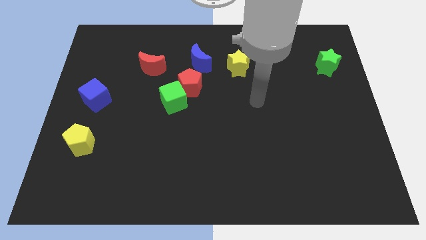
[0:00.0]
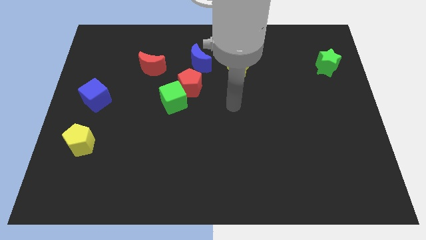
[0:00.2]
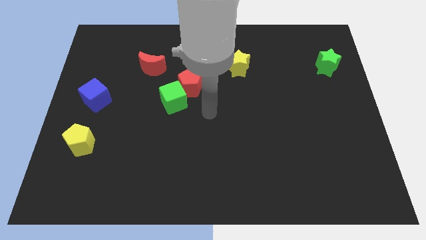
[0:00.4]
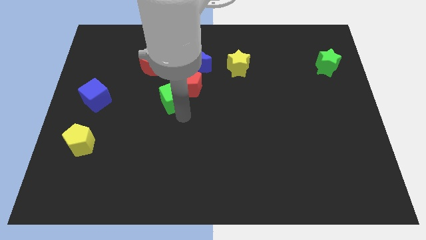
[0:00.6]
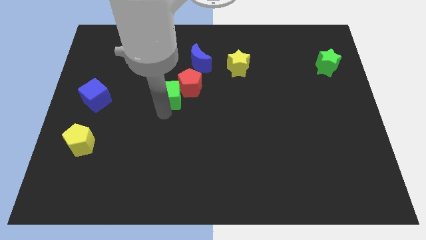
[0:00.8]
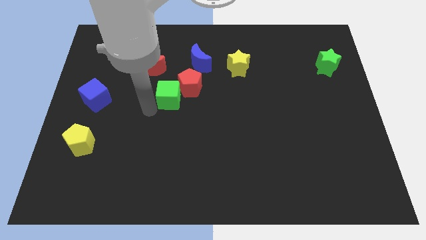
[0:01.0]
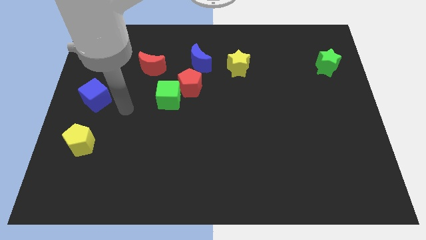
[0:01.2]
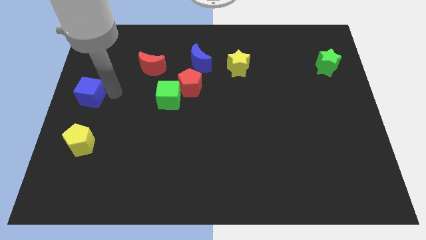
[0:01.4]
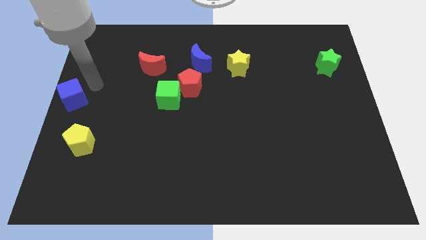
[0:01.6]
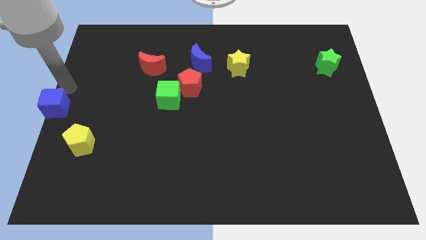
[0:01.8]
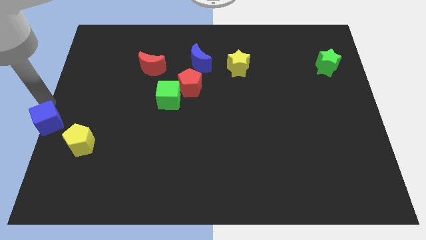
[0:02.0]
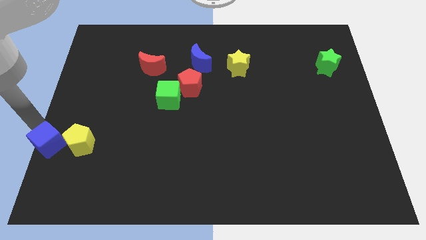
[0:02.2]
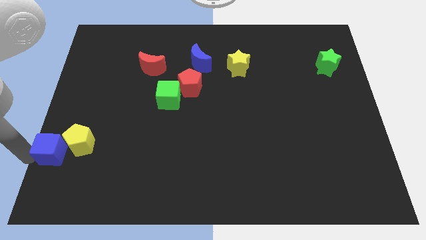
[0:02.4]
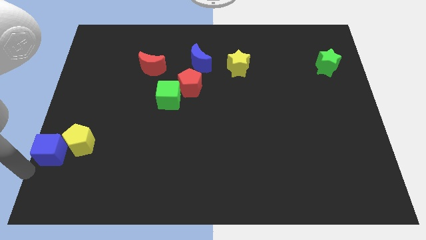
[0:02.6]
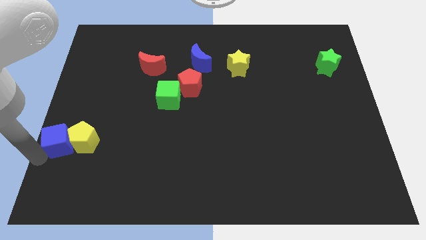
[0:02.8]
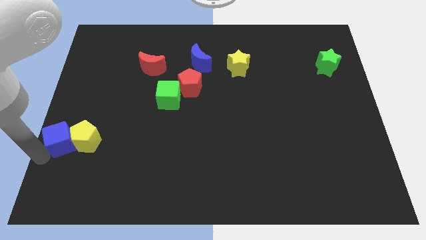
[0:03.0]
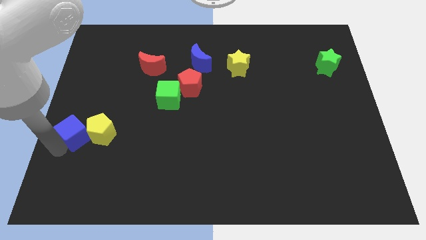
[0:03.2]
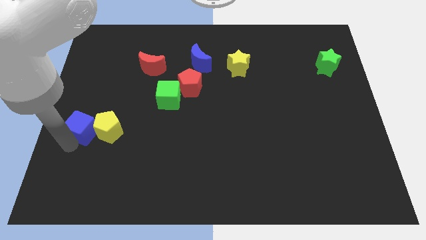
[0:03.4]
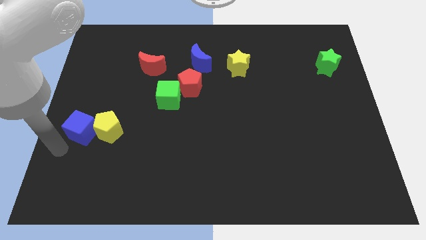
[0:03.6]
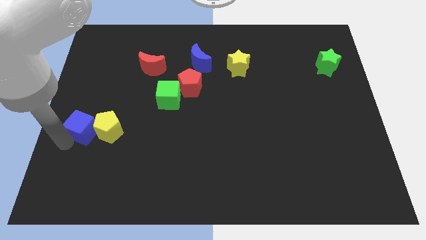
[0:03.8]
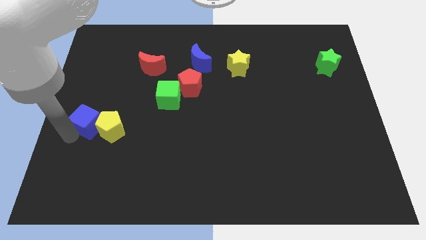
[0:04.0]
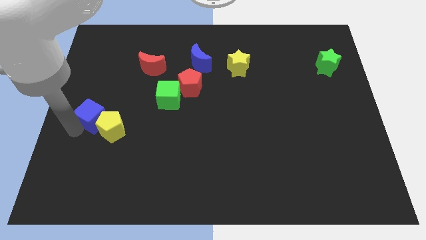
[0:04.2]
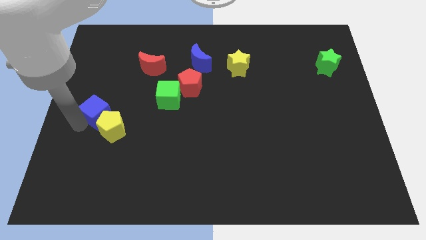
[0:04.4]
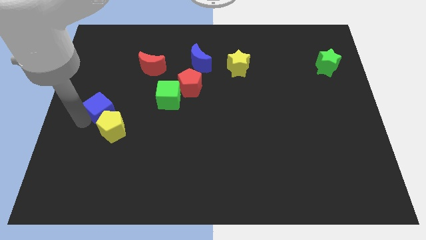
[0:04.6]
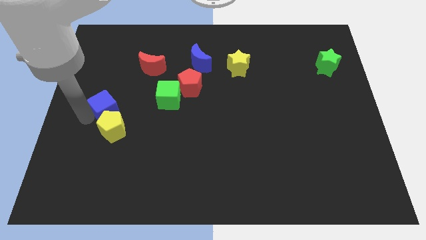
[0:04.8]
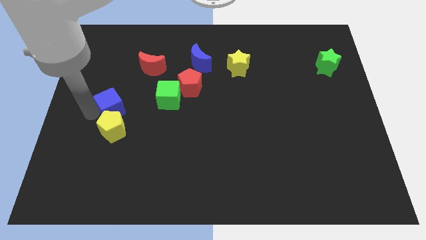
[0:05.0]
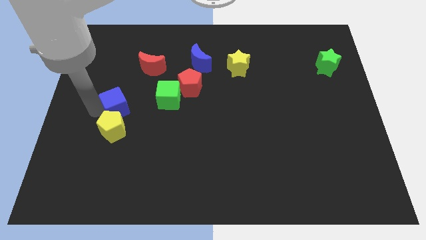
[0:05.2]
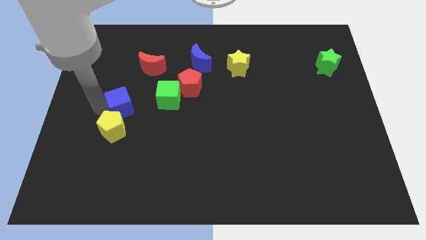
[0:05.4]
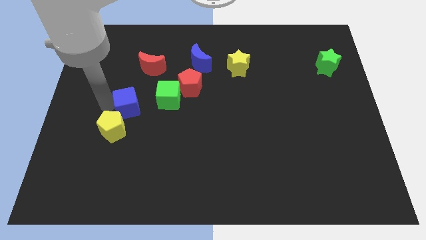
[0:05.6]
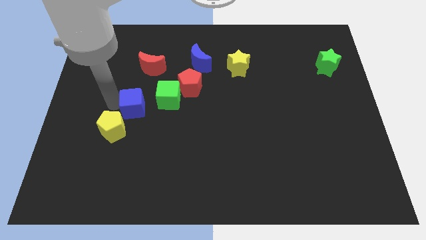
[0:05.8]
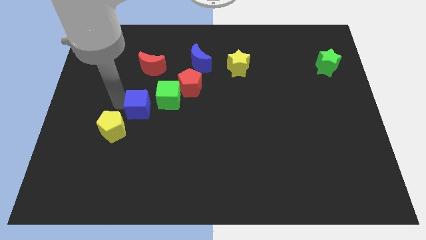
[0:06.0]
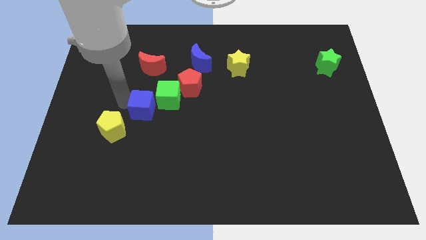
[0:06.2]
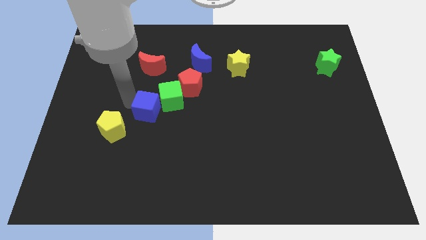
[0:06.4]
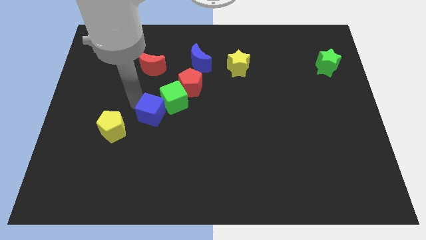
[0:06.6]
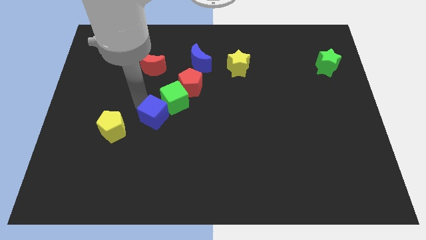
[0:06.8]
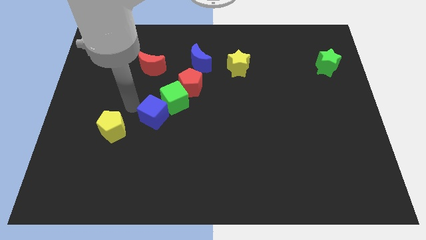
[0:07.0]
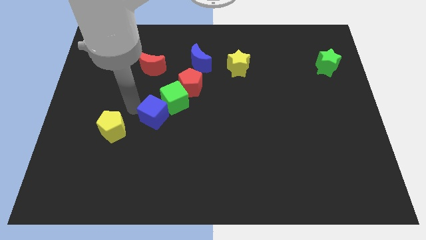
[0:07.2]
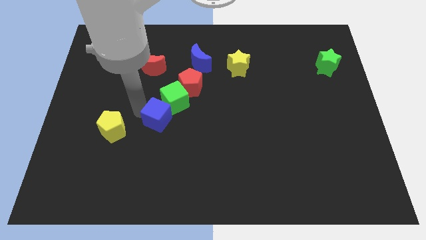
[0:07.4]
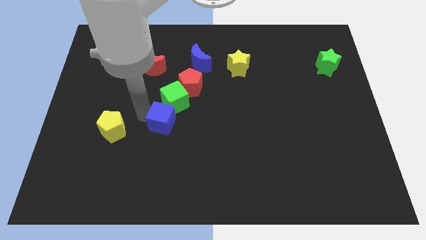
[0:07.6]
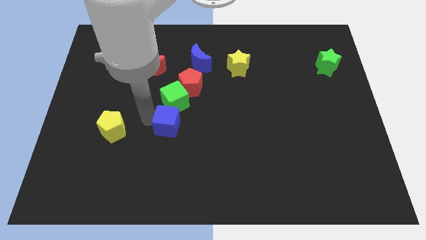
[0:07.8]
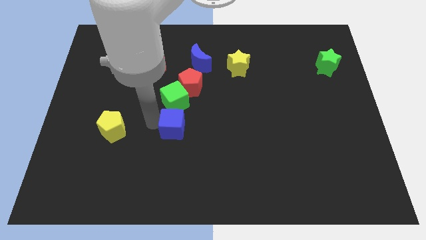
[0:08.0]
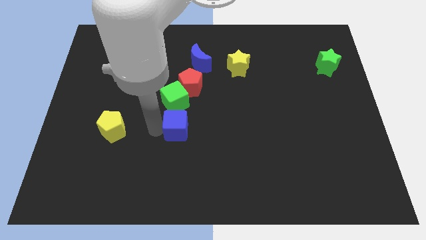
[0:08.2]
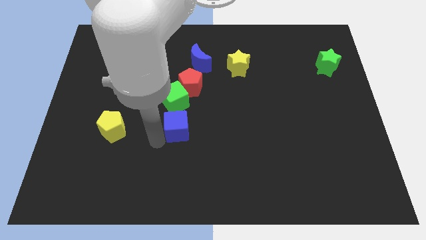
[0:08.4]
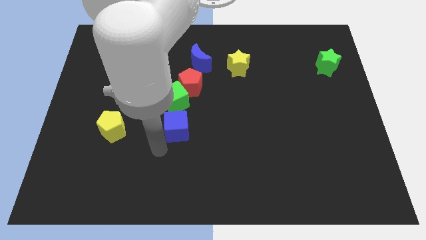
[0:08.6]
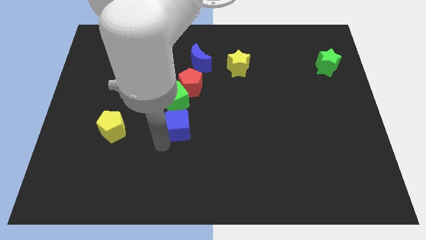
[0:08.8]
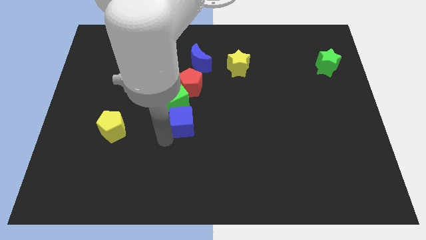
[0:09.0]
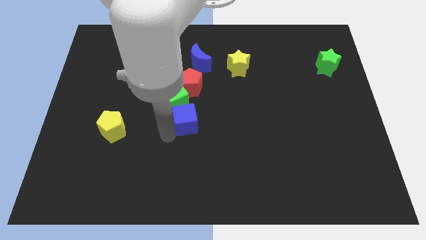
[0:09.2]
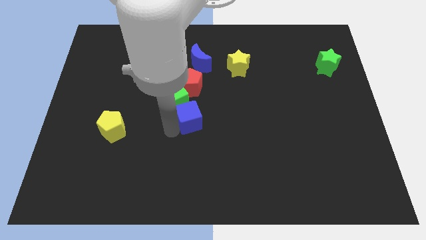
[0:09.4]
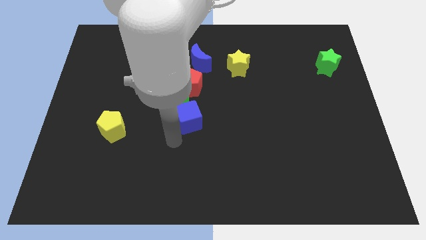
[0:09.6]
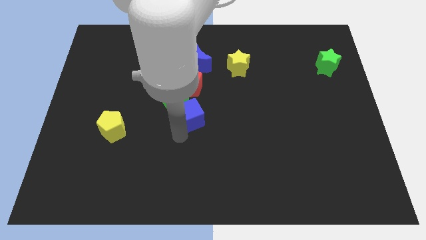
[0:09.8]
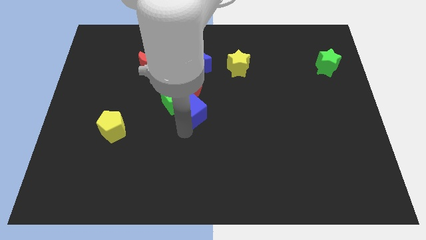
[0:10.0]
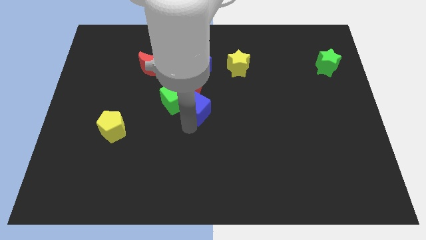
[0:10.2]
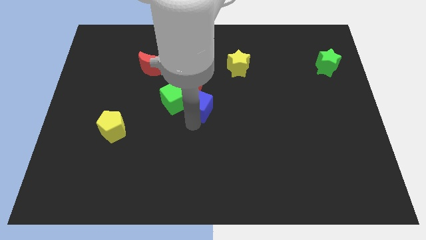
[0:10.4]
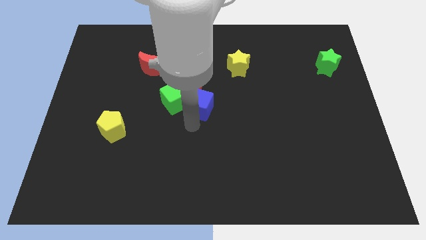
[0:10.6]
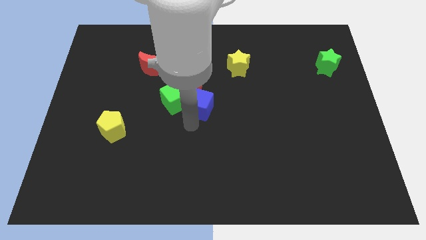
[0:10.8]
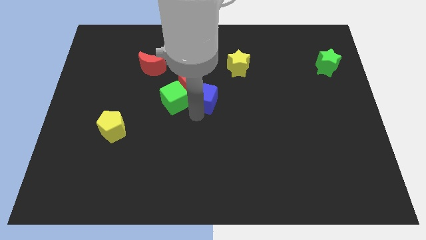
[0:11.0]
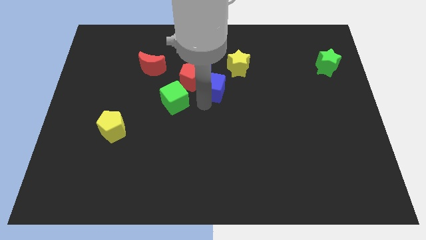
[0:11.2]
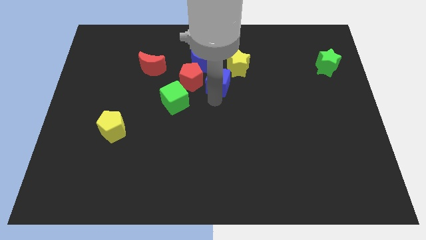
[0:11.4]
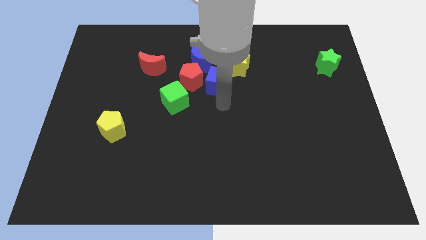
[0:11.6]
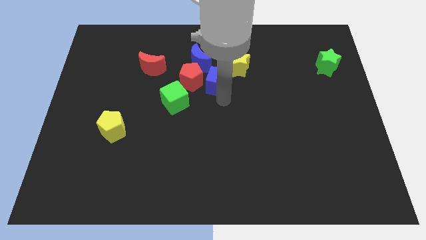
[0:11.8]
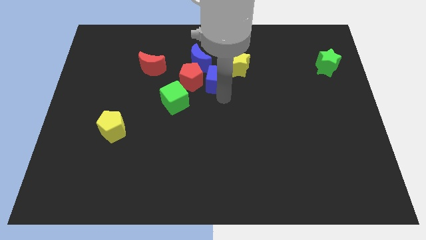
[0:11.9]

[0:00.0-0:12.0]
move the blue cube diagonally up and to the right of the red pentagon
